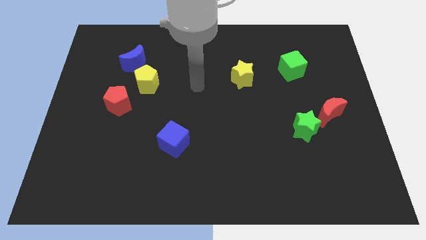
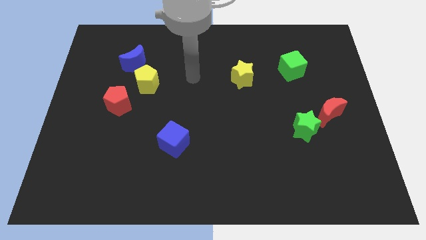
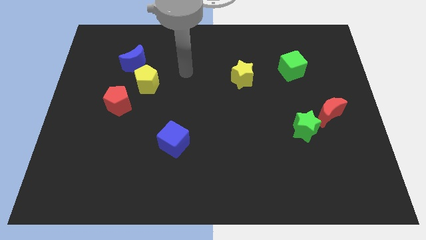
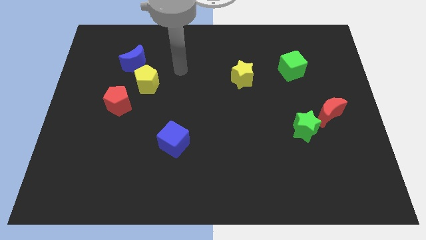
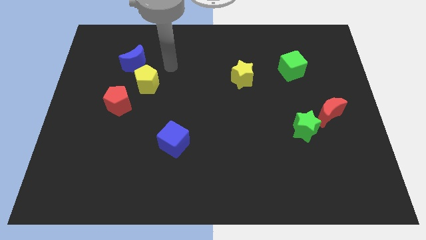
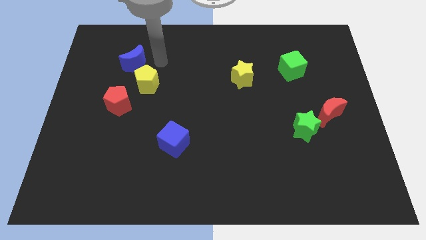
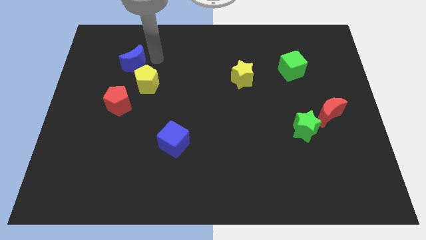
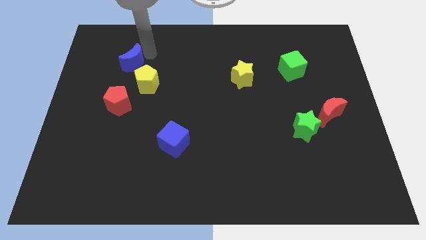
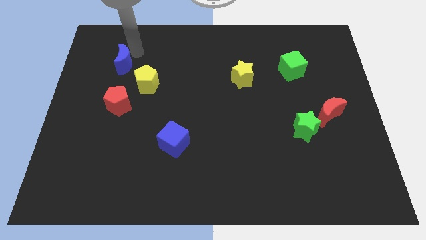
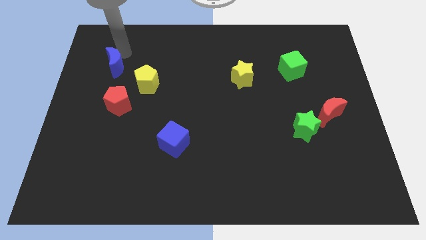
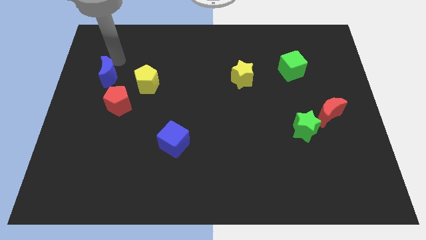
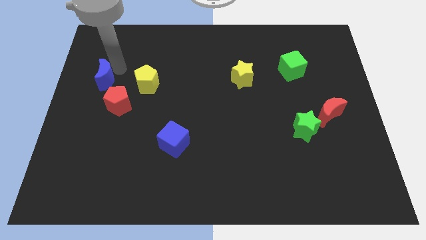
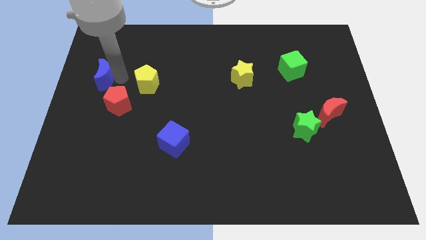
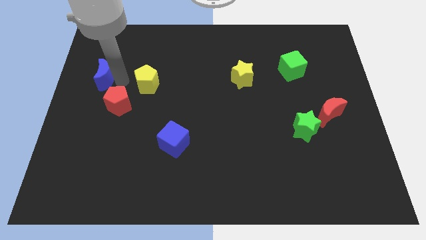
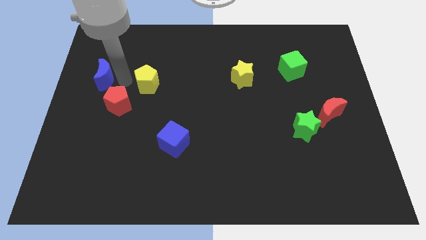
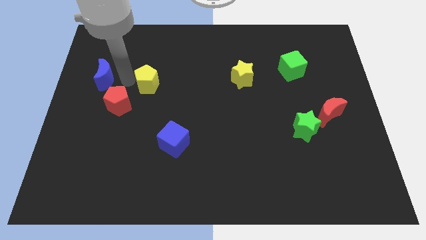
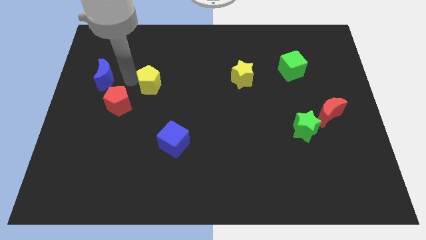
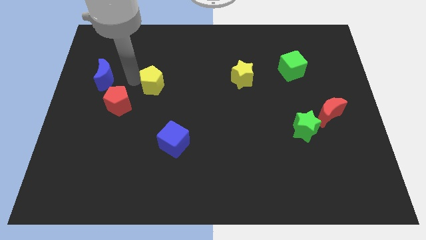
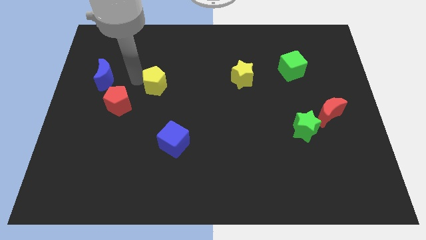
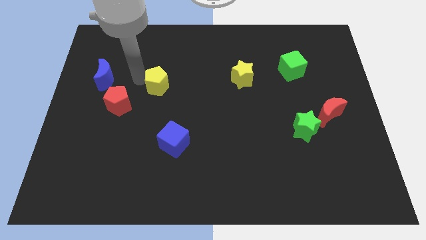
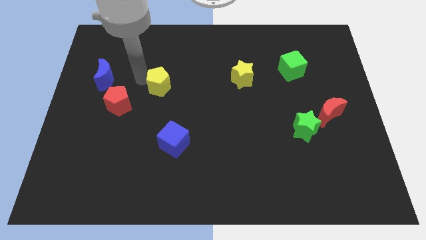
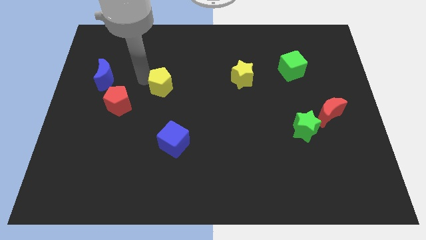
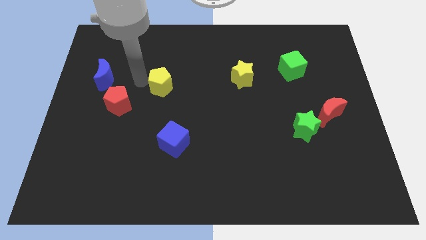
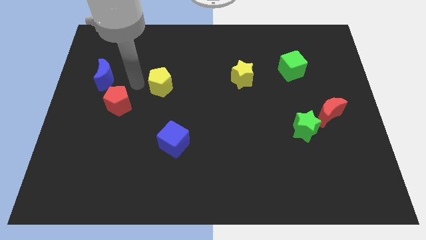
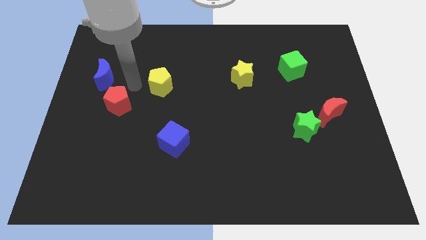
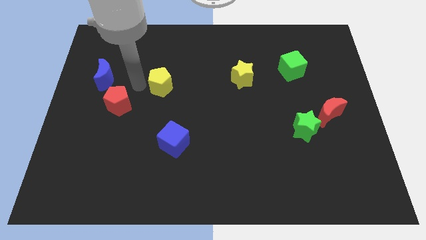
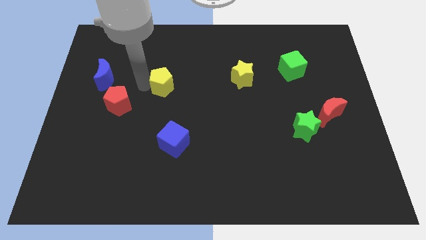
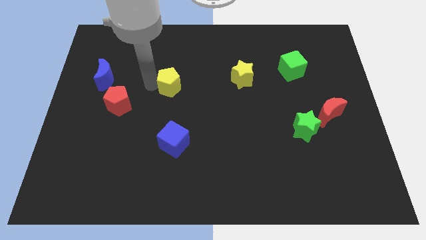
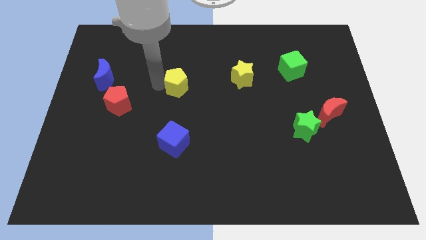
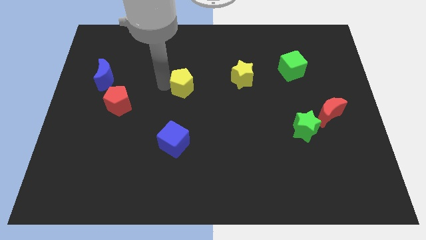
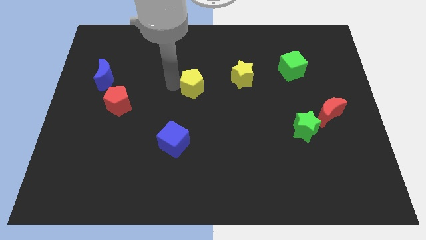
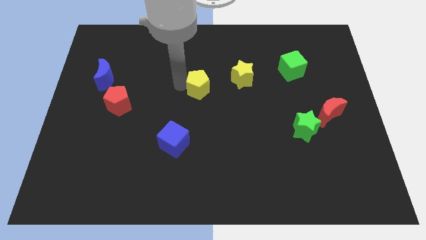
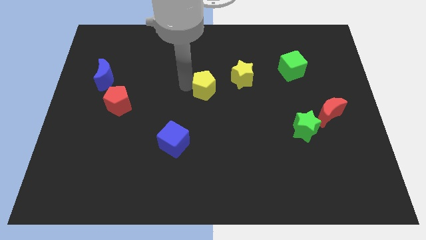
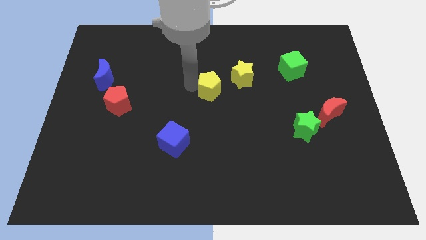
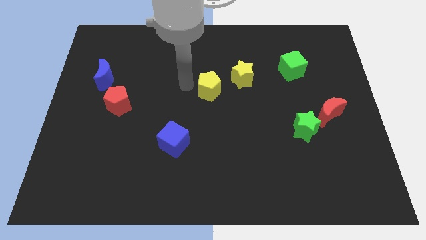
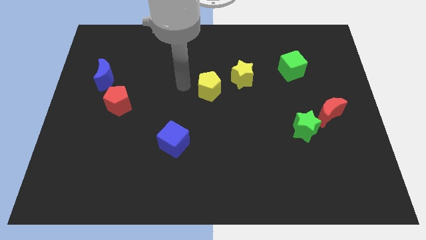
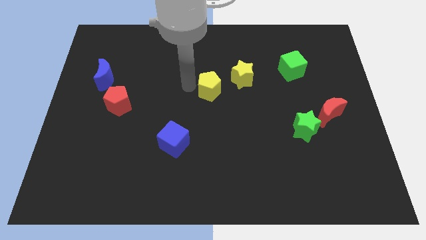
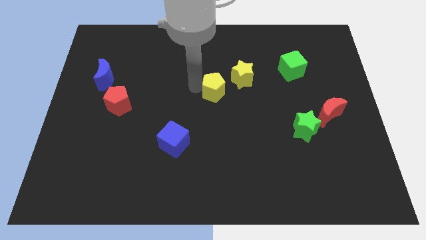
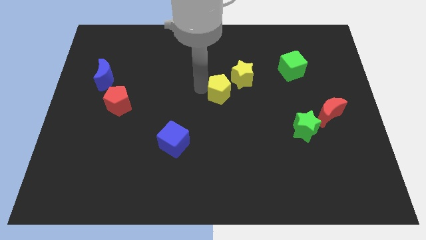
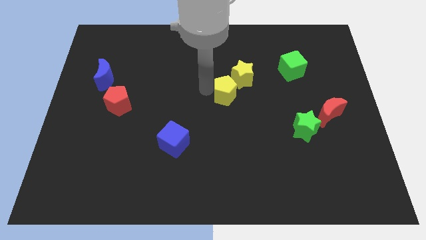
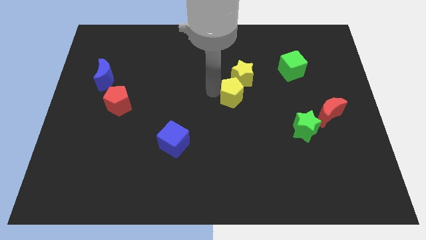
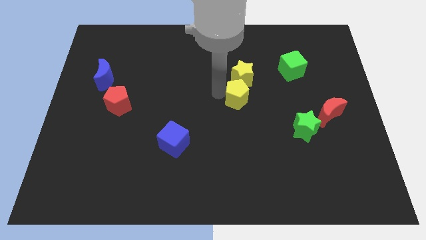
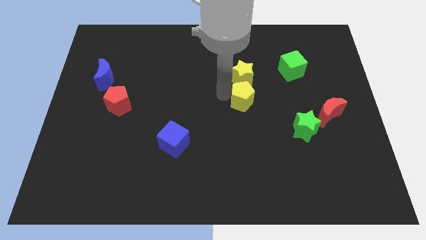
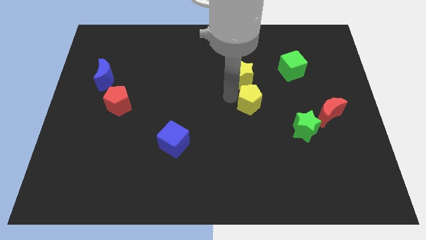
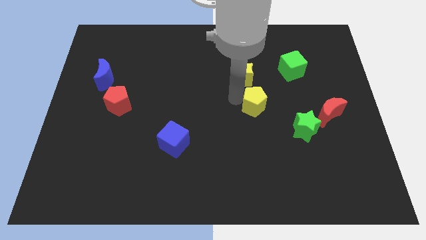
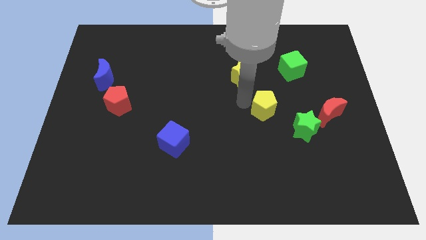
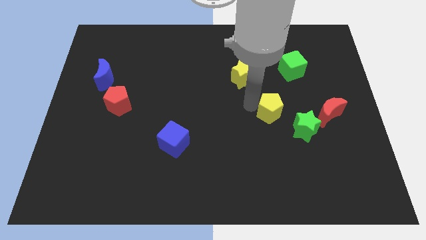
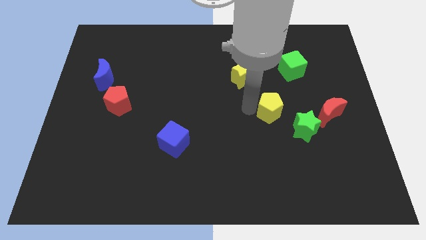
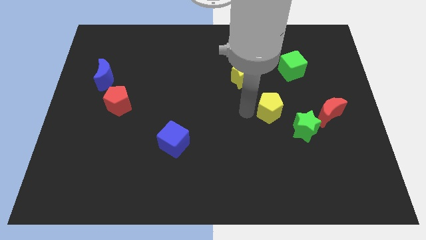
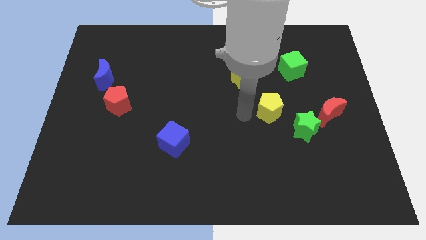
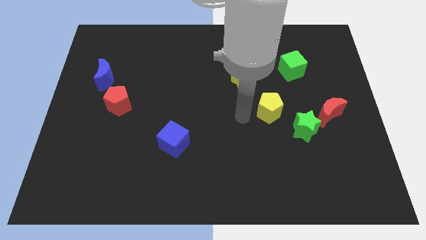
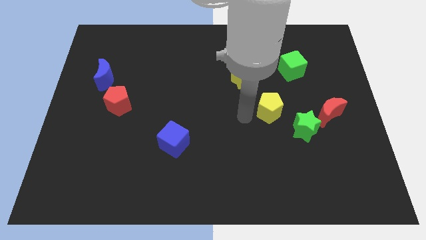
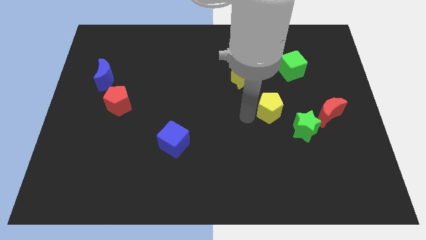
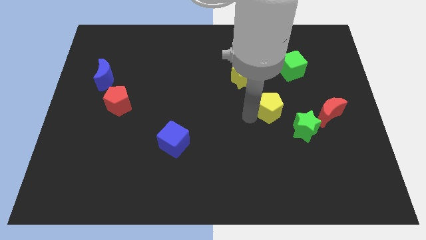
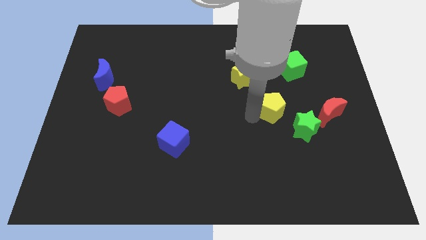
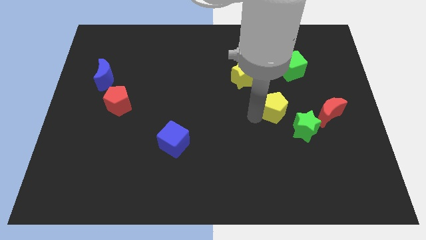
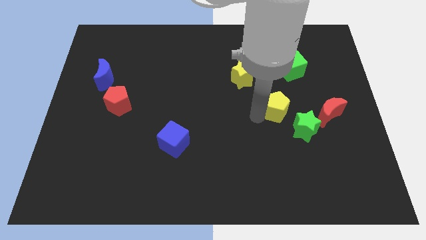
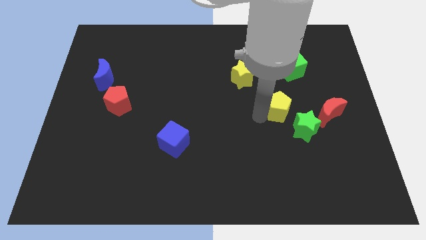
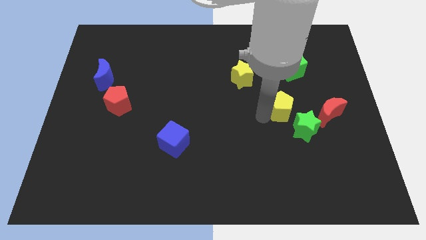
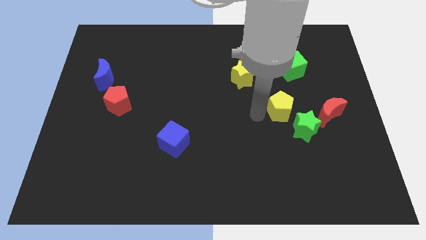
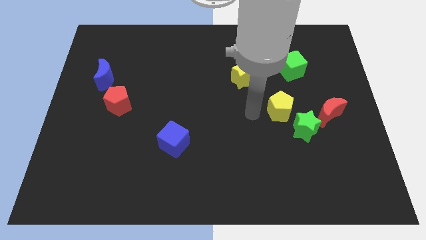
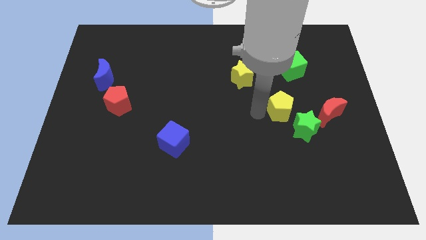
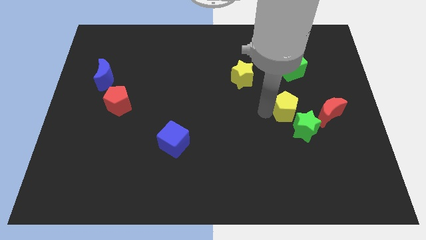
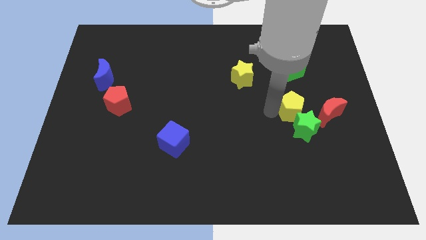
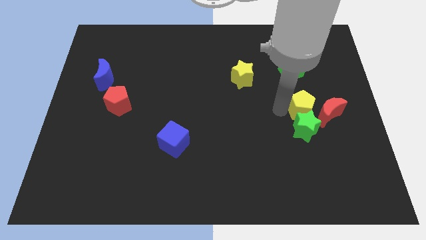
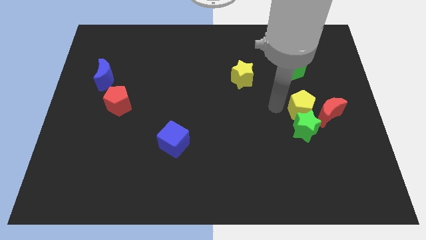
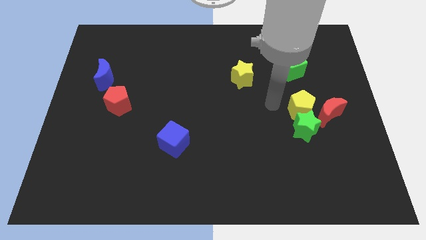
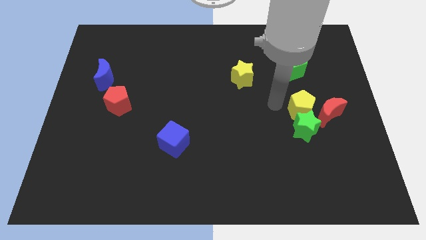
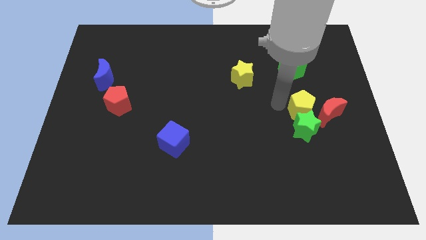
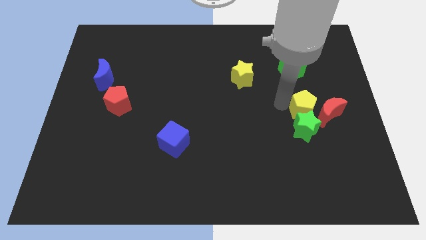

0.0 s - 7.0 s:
slide the yellow pentagon close to the red moon
